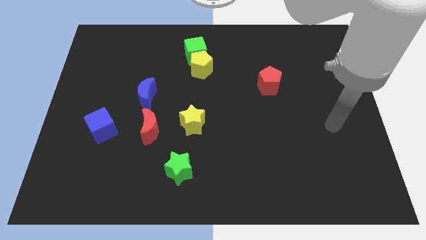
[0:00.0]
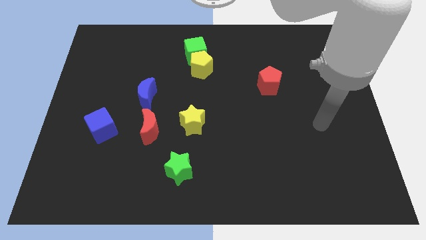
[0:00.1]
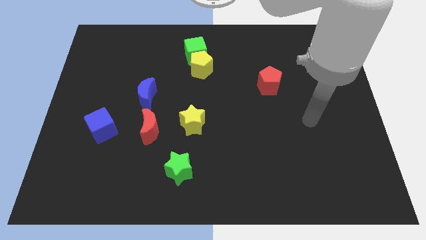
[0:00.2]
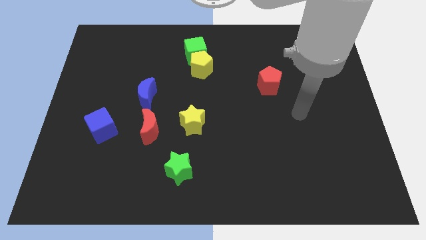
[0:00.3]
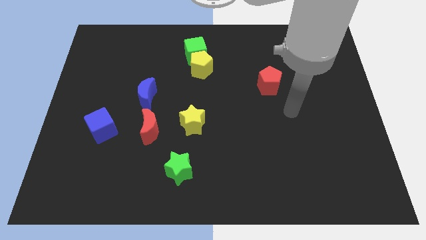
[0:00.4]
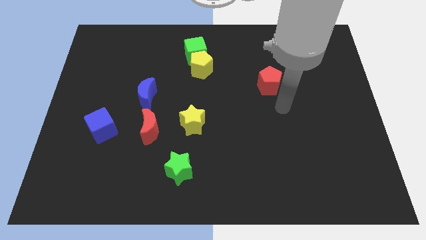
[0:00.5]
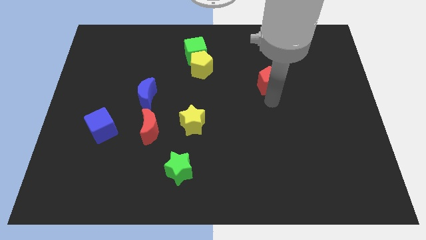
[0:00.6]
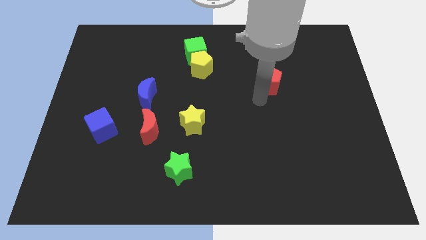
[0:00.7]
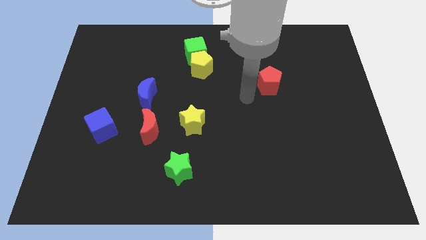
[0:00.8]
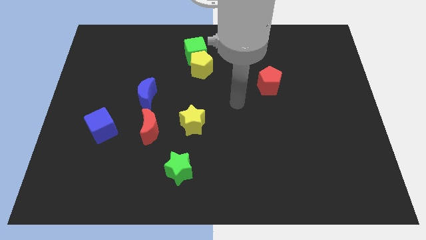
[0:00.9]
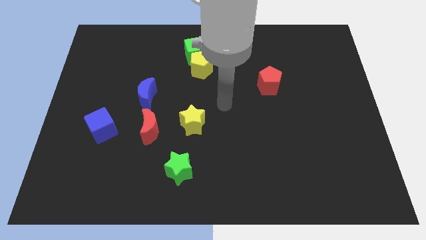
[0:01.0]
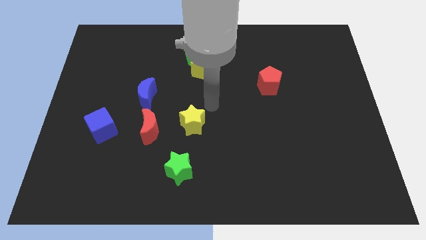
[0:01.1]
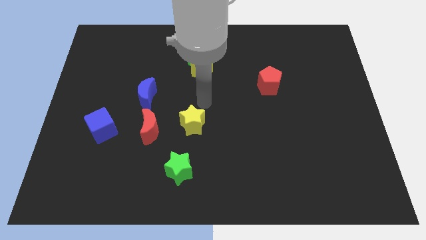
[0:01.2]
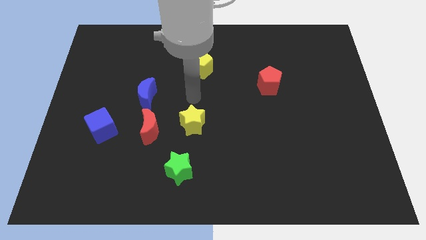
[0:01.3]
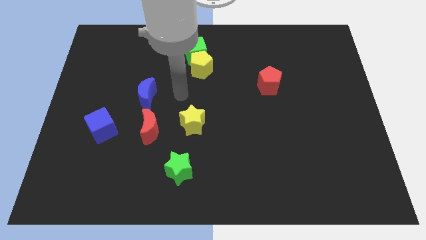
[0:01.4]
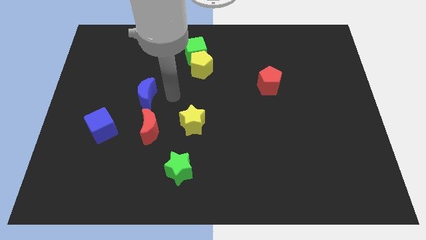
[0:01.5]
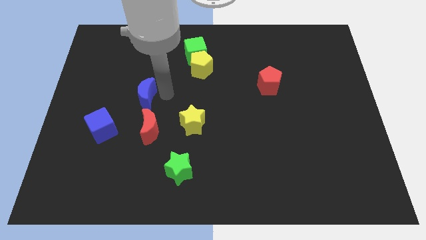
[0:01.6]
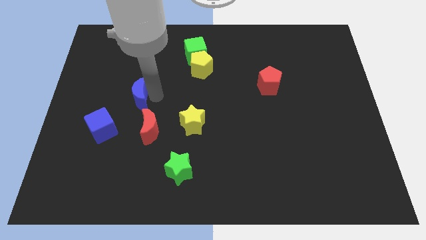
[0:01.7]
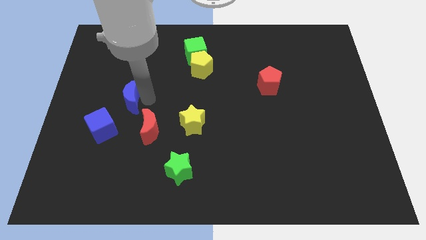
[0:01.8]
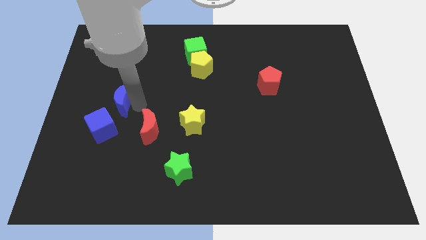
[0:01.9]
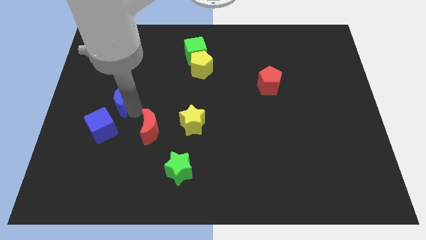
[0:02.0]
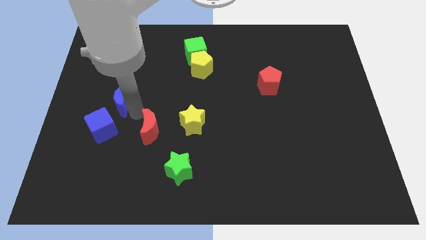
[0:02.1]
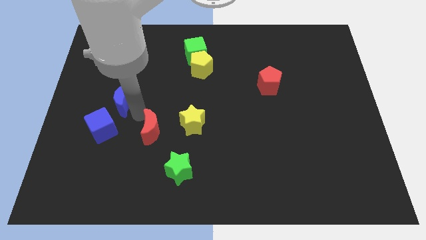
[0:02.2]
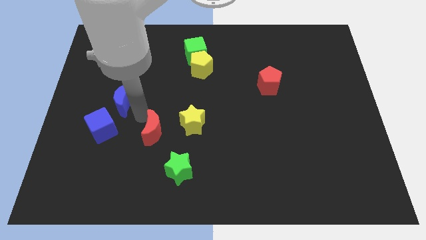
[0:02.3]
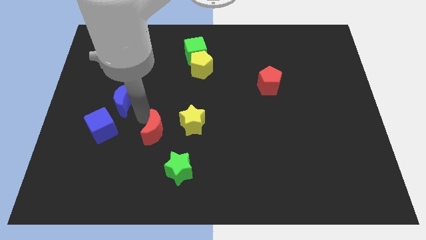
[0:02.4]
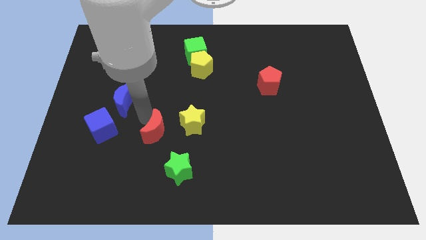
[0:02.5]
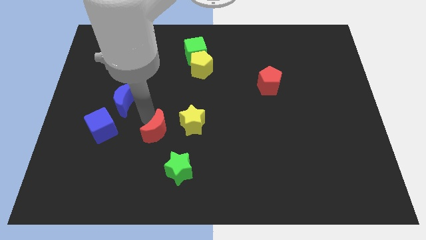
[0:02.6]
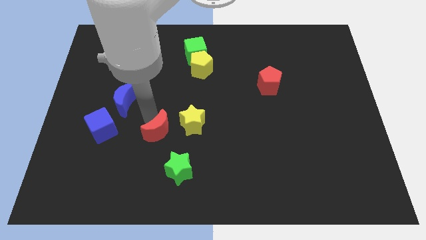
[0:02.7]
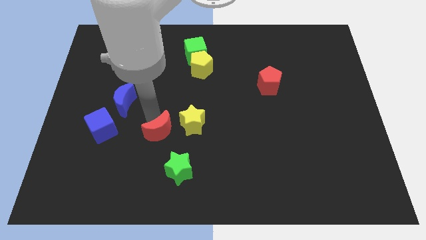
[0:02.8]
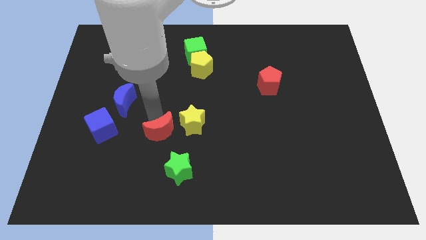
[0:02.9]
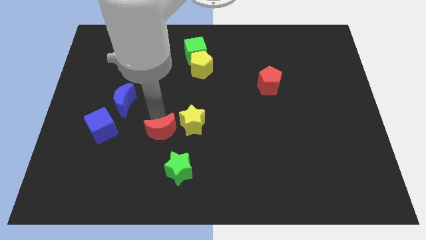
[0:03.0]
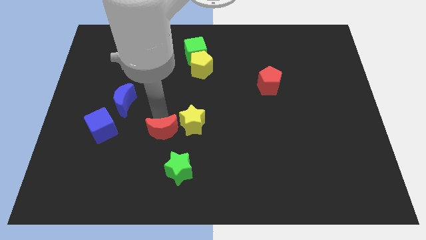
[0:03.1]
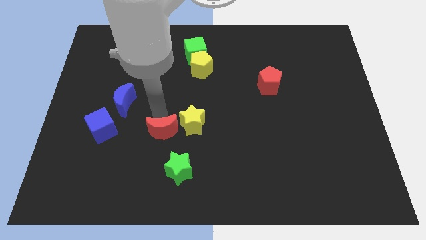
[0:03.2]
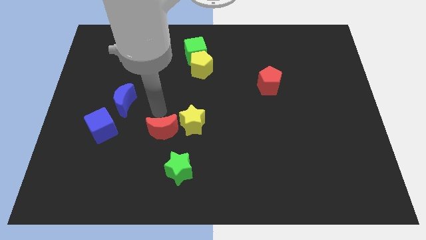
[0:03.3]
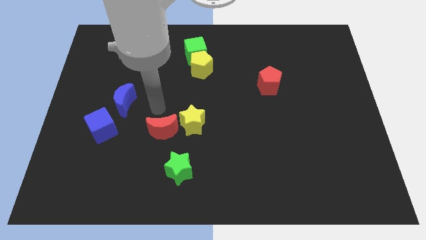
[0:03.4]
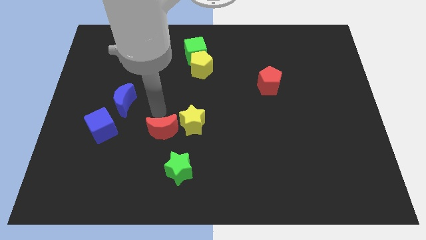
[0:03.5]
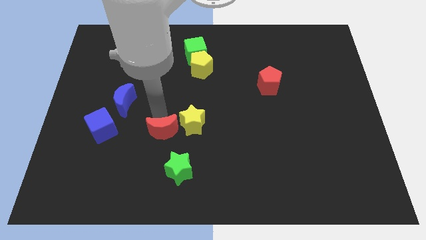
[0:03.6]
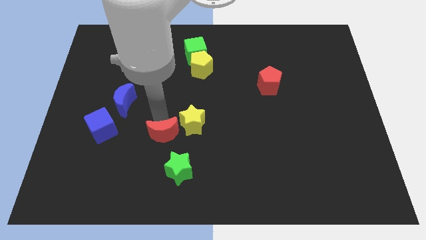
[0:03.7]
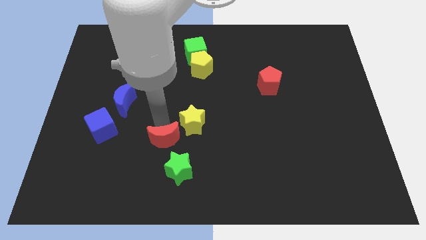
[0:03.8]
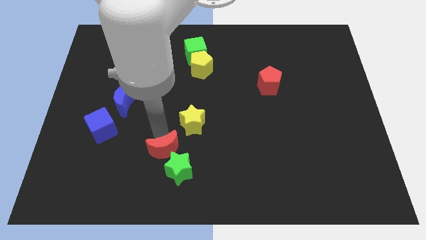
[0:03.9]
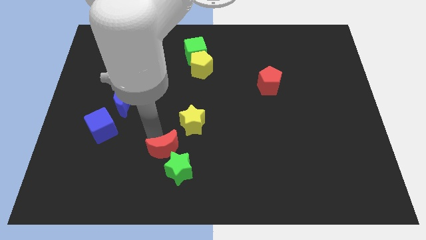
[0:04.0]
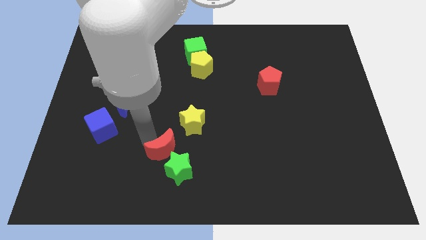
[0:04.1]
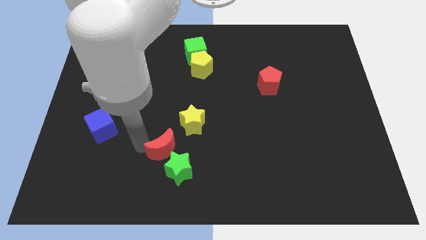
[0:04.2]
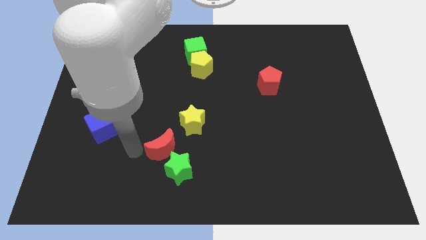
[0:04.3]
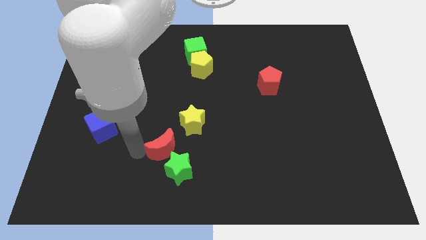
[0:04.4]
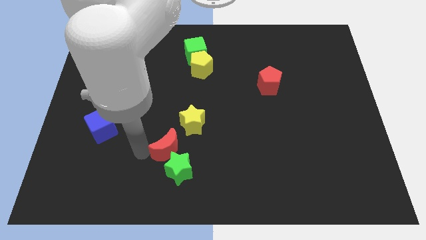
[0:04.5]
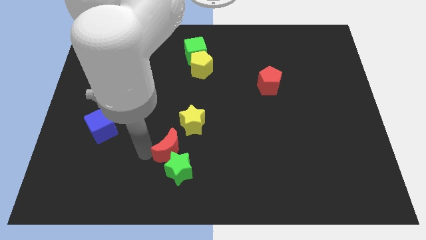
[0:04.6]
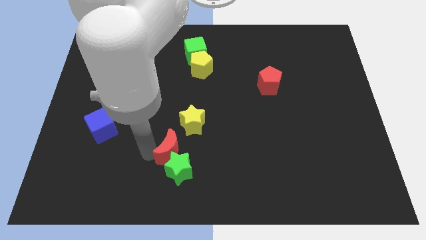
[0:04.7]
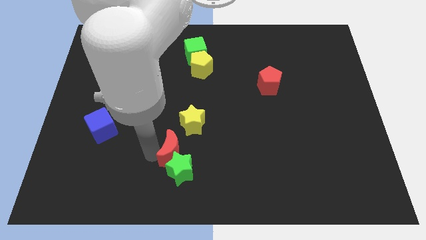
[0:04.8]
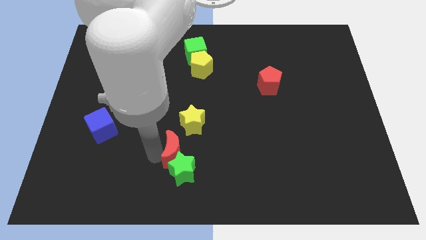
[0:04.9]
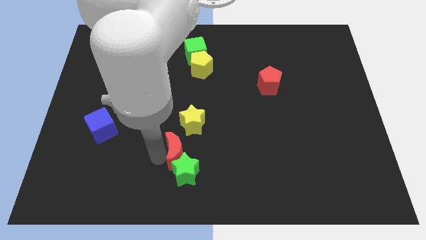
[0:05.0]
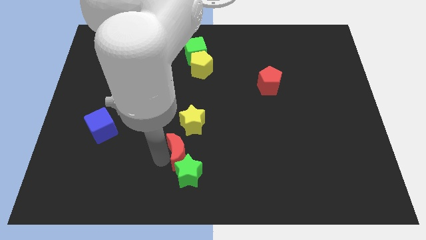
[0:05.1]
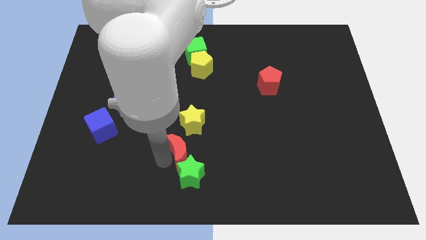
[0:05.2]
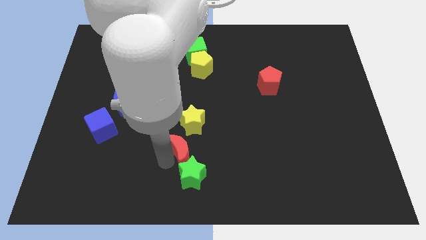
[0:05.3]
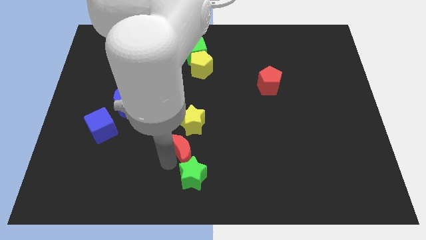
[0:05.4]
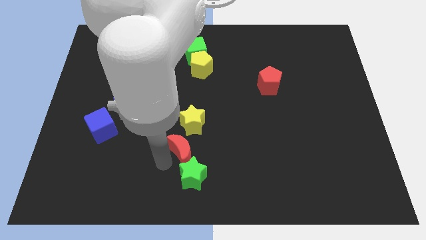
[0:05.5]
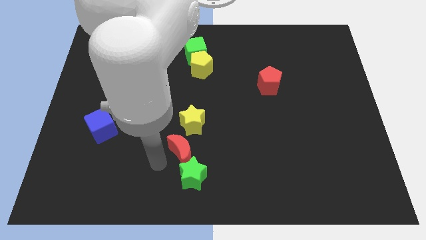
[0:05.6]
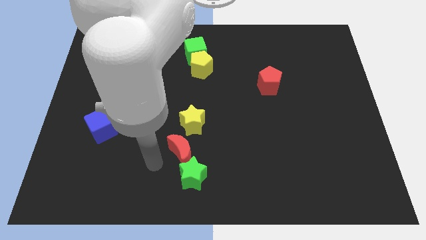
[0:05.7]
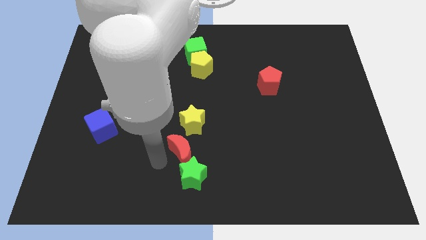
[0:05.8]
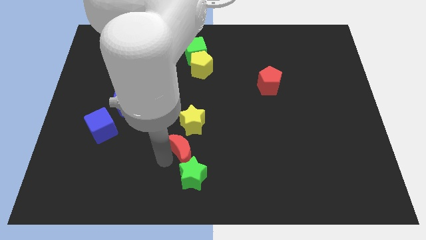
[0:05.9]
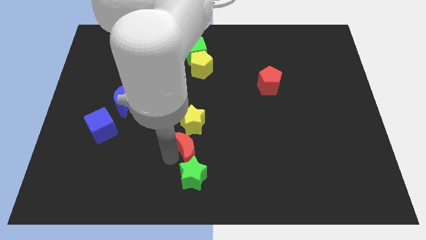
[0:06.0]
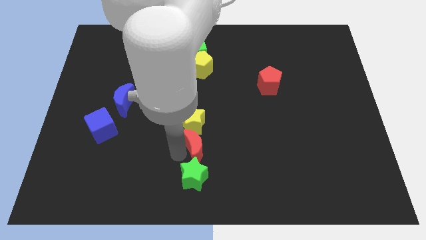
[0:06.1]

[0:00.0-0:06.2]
push the red moon to the bottom right side of the yellow star

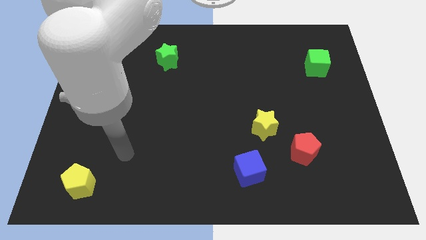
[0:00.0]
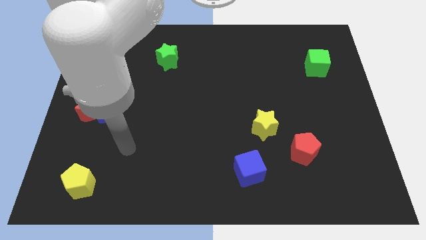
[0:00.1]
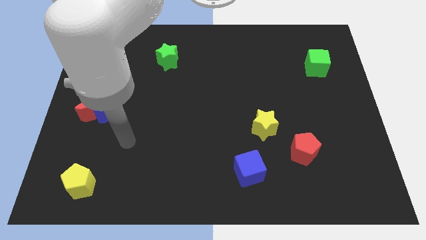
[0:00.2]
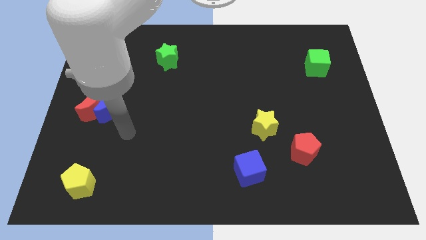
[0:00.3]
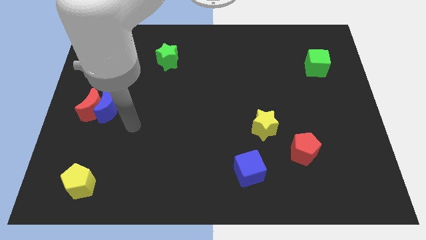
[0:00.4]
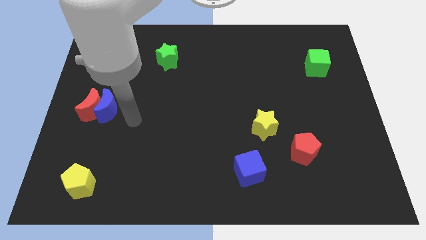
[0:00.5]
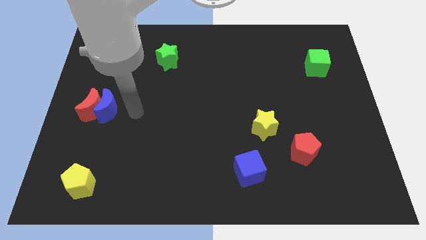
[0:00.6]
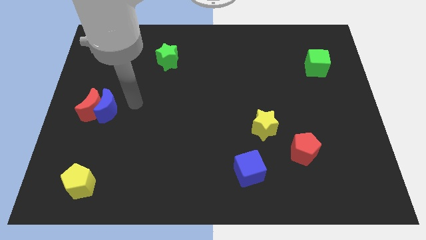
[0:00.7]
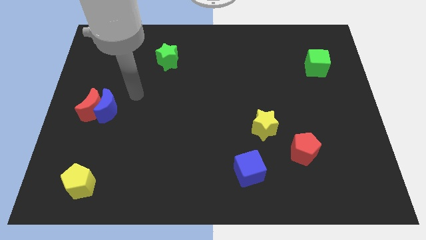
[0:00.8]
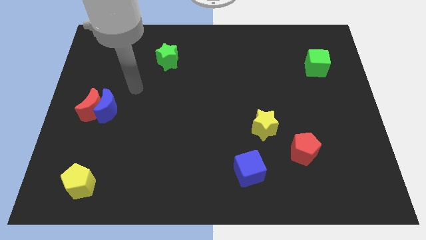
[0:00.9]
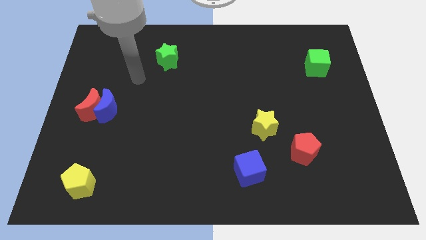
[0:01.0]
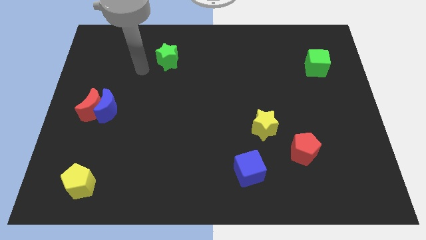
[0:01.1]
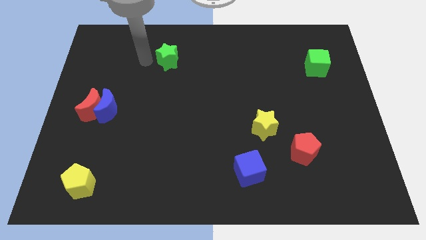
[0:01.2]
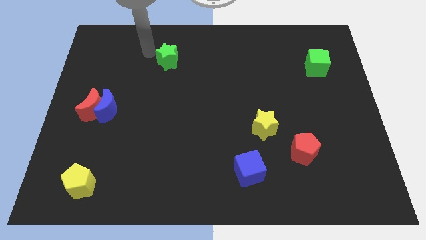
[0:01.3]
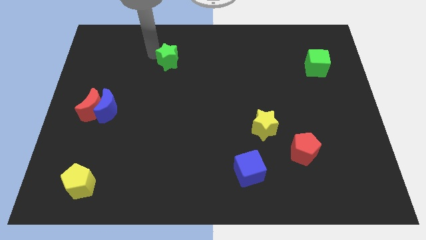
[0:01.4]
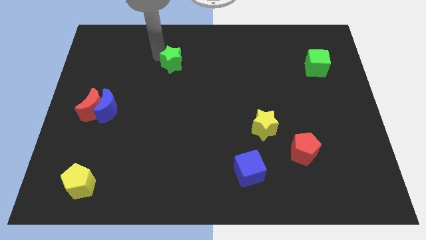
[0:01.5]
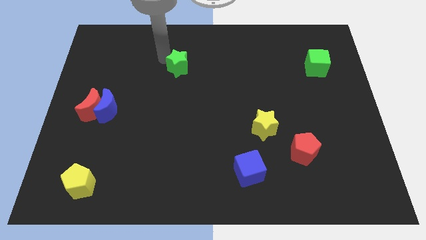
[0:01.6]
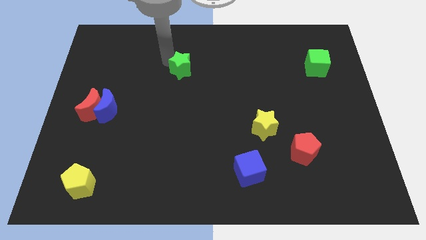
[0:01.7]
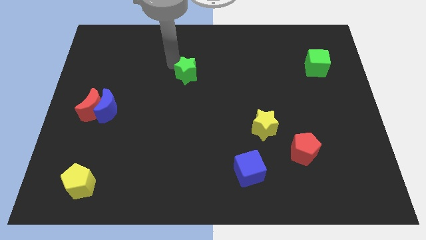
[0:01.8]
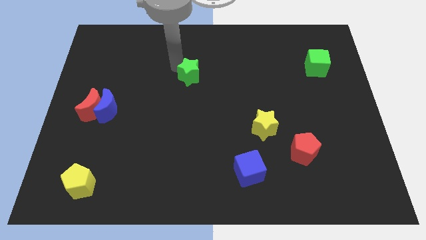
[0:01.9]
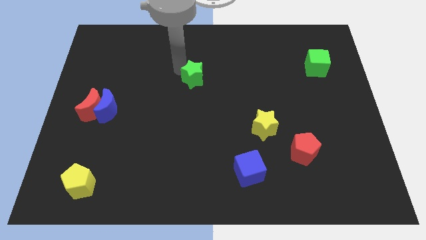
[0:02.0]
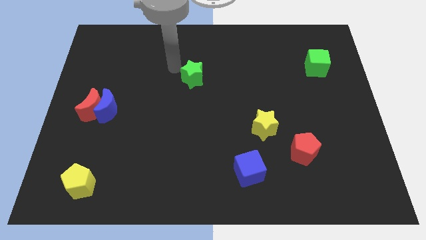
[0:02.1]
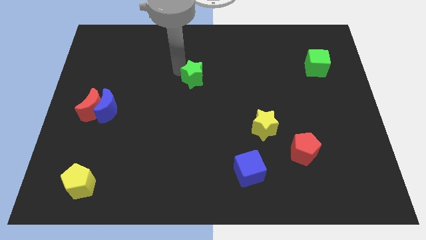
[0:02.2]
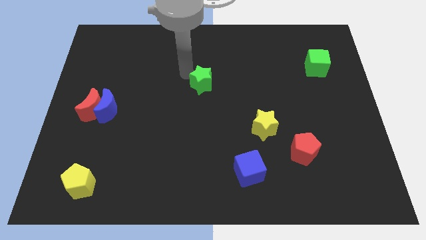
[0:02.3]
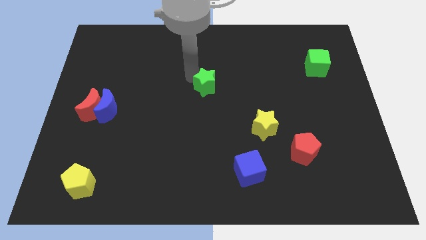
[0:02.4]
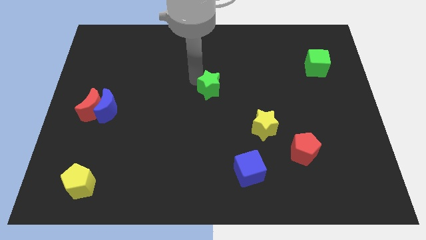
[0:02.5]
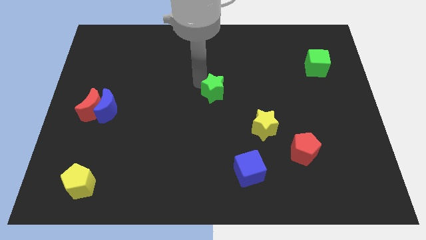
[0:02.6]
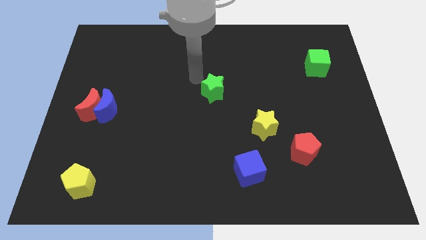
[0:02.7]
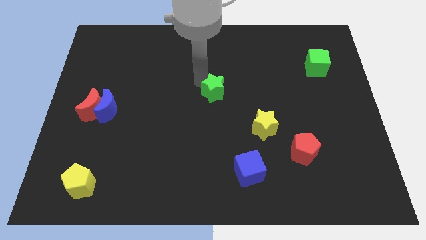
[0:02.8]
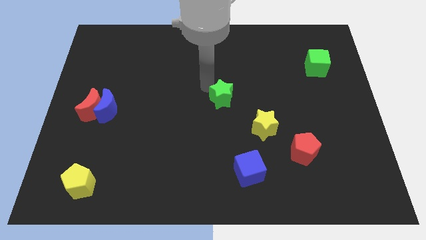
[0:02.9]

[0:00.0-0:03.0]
put the green star to the top left of the yellow star
